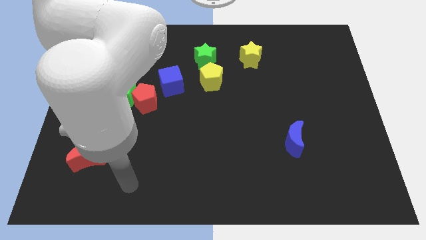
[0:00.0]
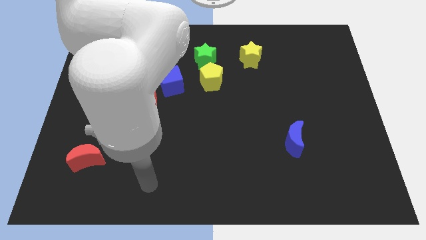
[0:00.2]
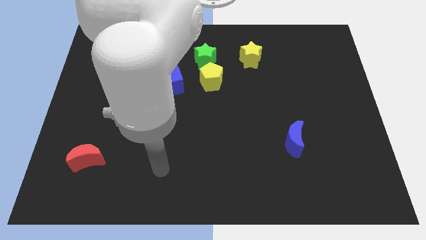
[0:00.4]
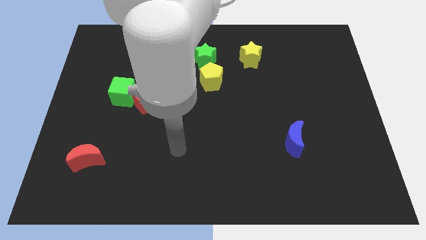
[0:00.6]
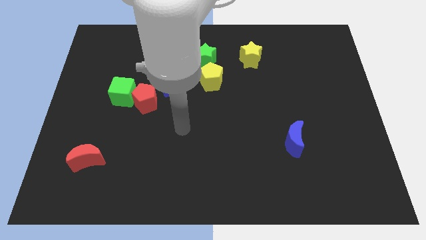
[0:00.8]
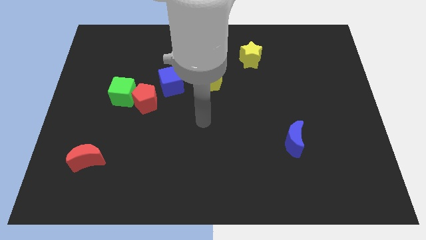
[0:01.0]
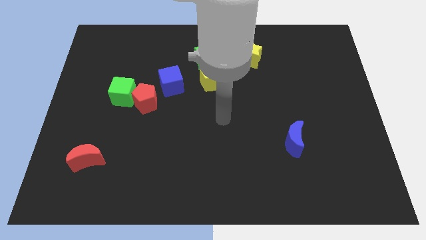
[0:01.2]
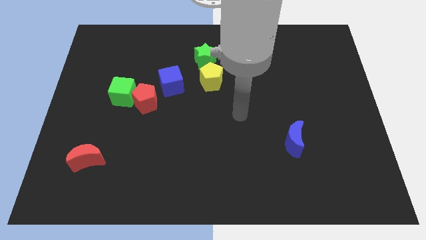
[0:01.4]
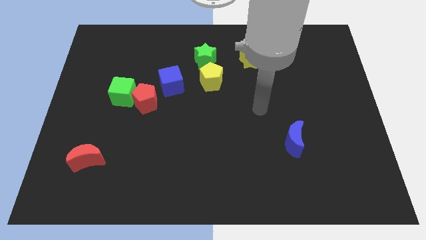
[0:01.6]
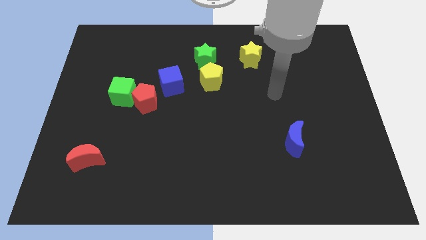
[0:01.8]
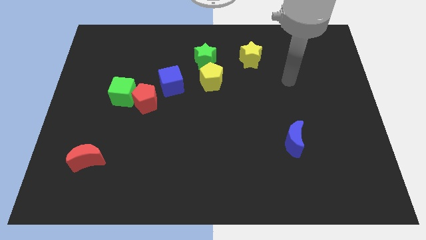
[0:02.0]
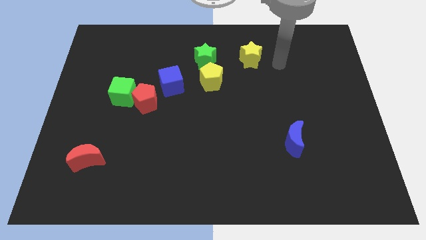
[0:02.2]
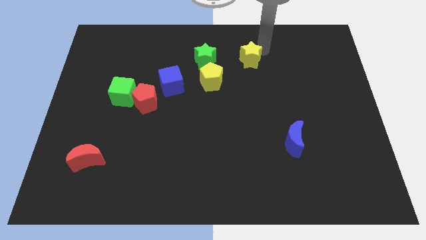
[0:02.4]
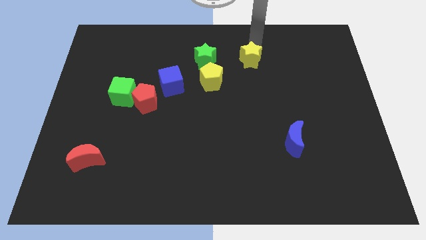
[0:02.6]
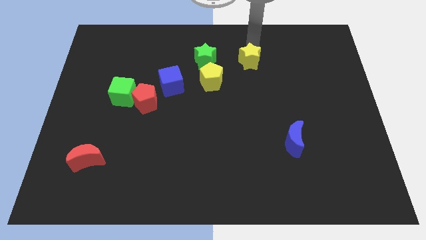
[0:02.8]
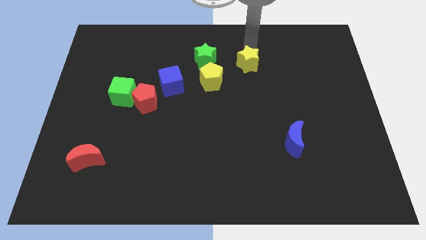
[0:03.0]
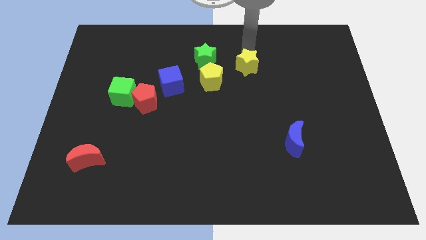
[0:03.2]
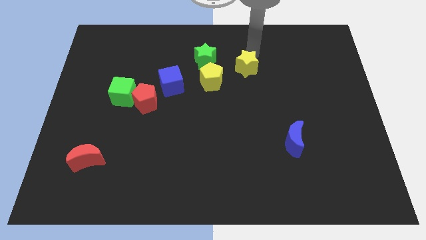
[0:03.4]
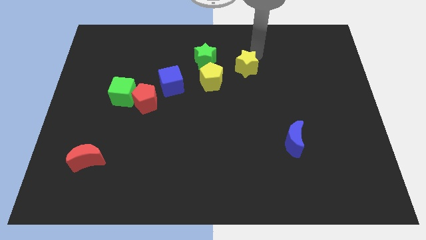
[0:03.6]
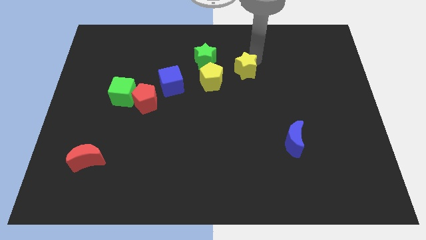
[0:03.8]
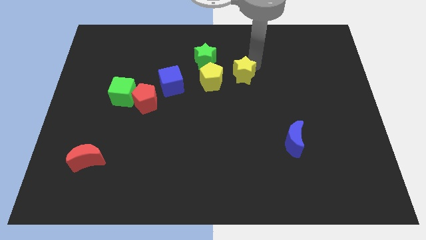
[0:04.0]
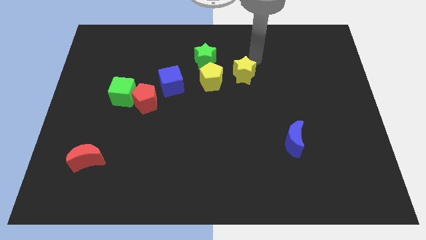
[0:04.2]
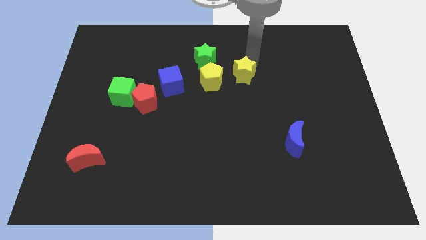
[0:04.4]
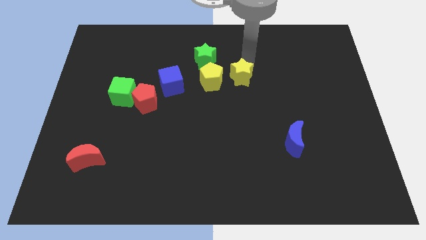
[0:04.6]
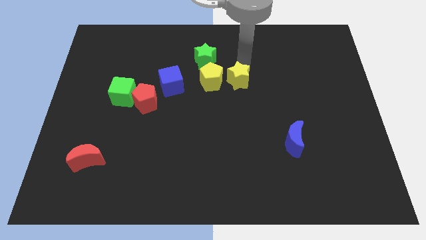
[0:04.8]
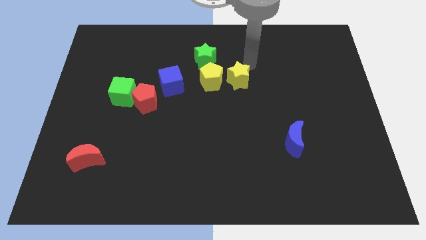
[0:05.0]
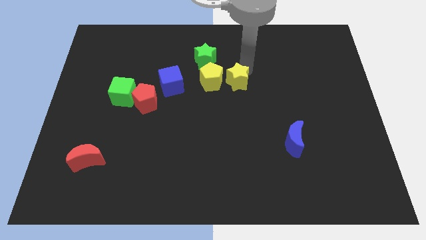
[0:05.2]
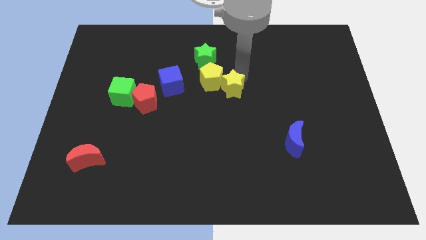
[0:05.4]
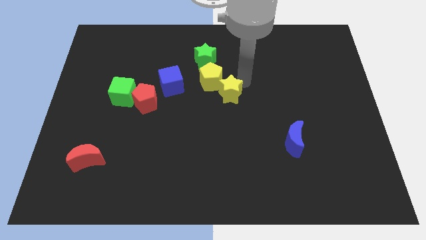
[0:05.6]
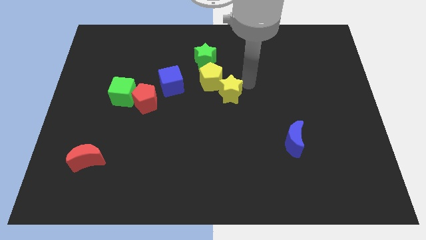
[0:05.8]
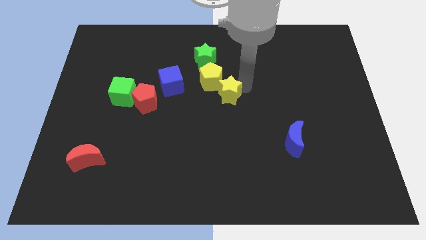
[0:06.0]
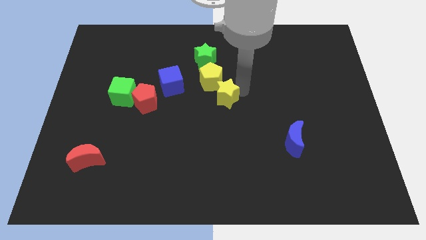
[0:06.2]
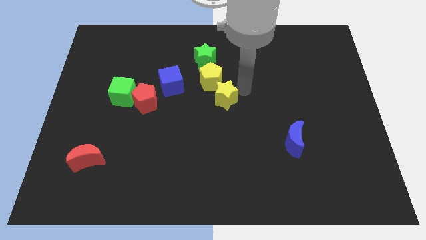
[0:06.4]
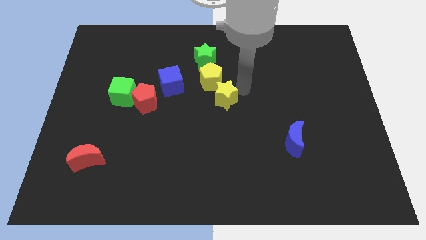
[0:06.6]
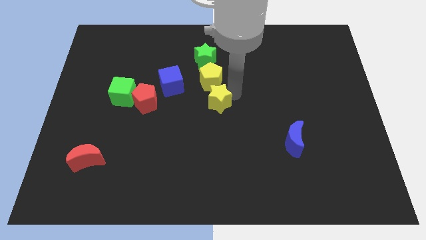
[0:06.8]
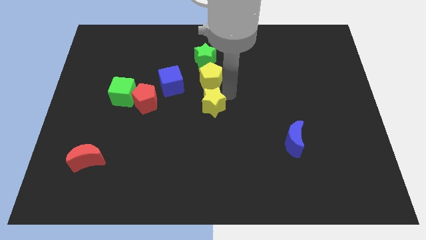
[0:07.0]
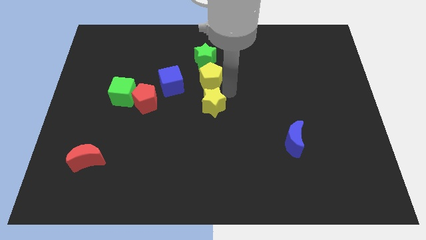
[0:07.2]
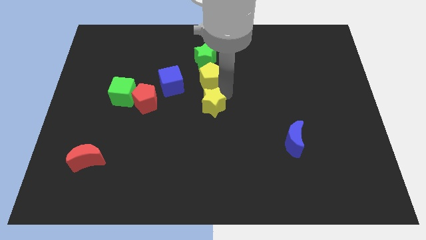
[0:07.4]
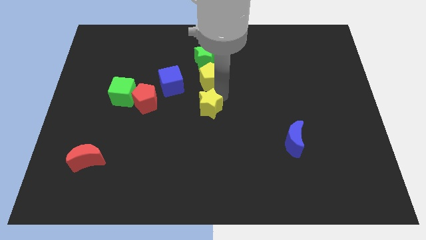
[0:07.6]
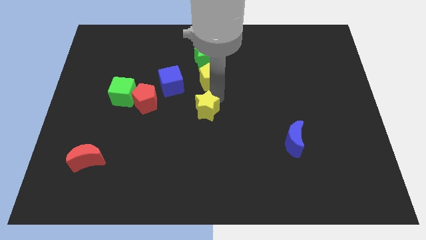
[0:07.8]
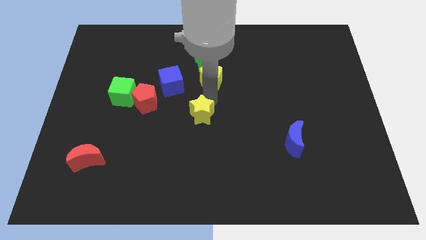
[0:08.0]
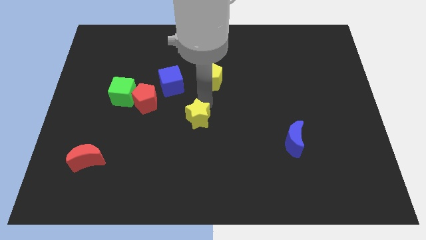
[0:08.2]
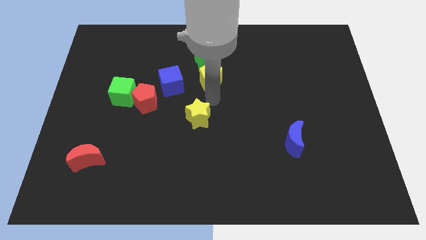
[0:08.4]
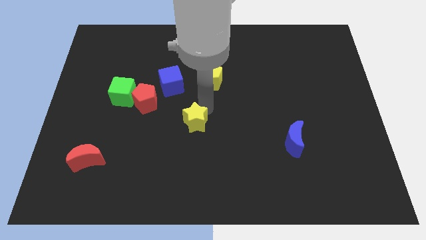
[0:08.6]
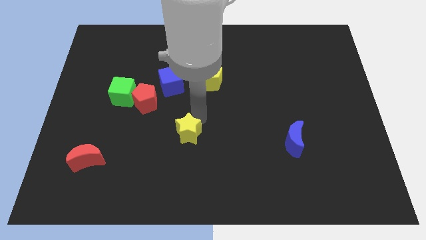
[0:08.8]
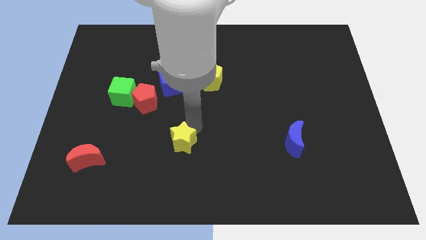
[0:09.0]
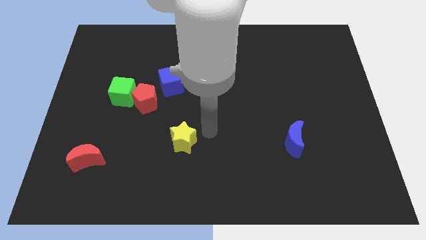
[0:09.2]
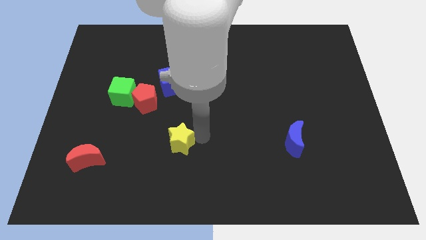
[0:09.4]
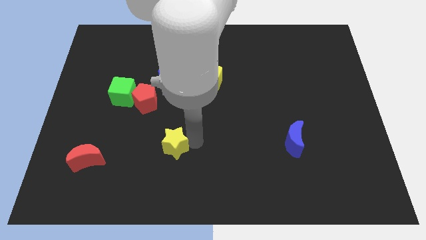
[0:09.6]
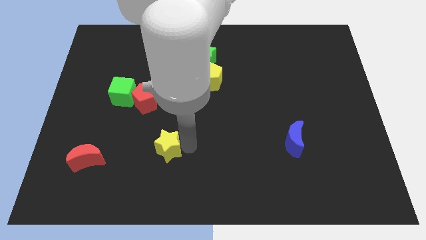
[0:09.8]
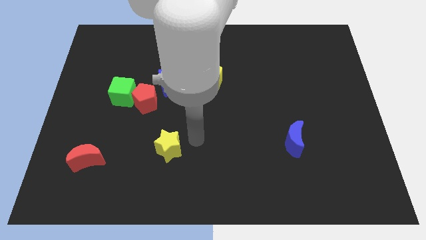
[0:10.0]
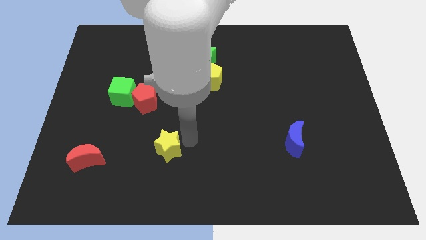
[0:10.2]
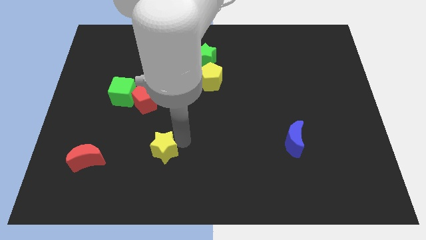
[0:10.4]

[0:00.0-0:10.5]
move the yellow star just right of the red moon

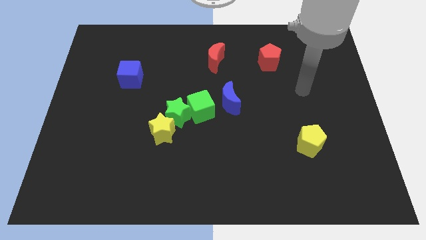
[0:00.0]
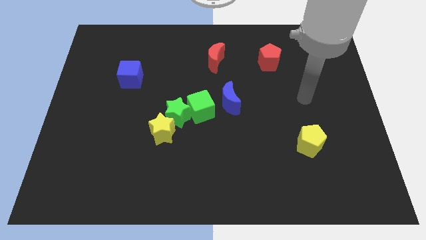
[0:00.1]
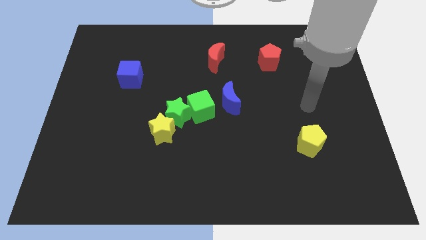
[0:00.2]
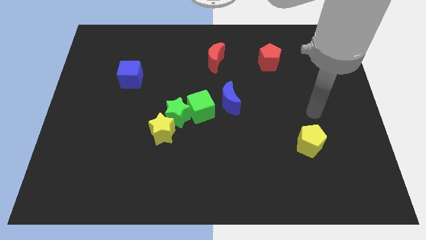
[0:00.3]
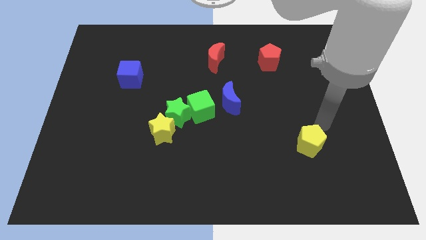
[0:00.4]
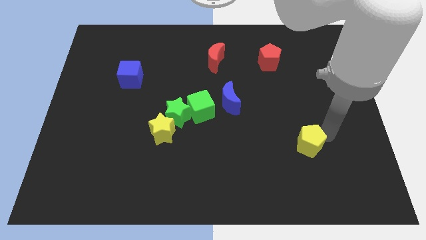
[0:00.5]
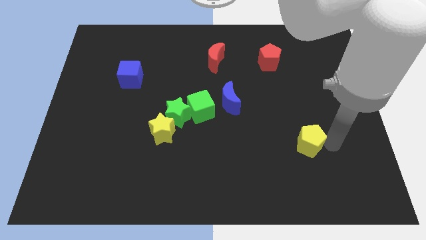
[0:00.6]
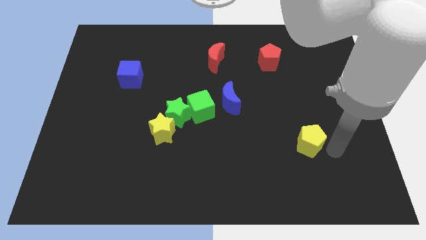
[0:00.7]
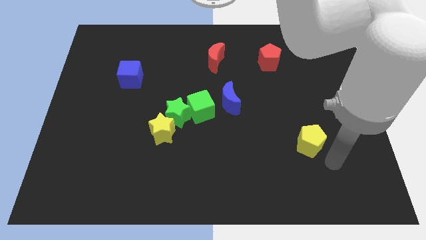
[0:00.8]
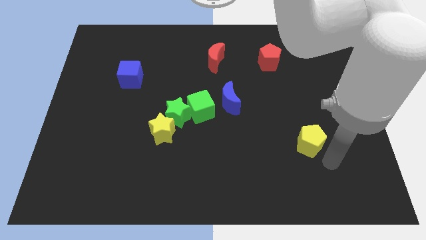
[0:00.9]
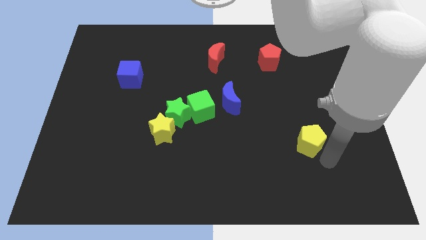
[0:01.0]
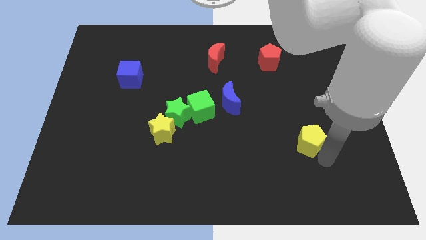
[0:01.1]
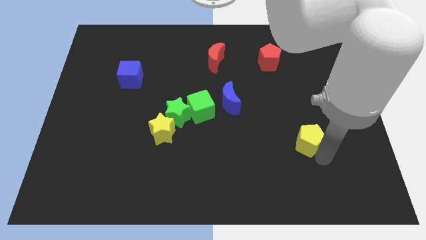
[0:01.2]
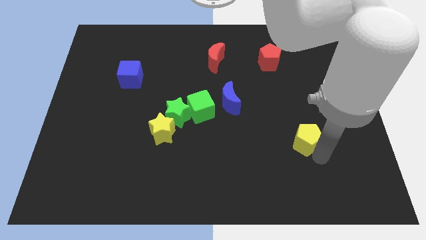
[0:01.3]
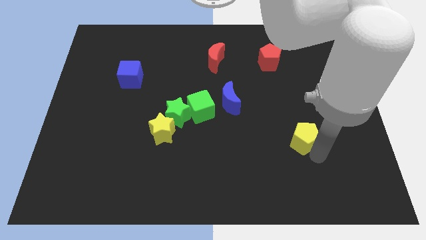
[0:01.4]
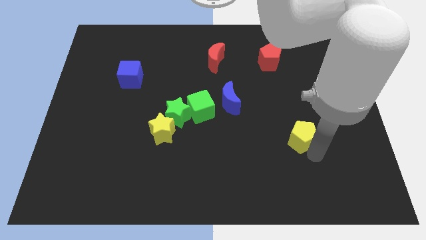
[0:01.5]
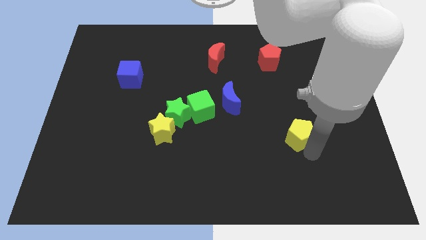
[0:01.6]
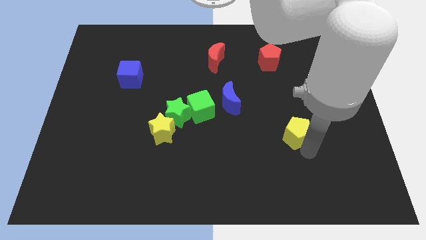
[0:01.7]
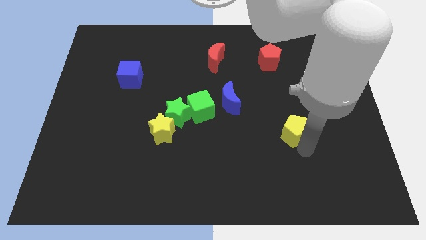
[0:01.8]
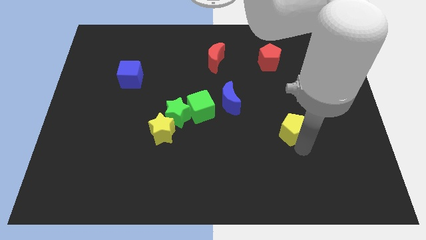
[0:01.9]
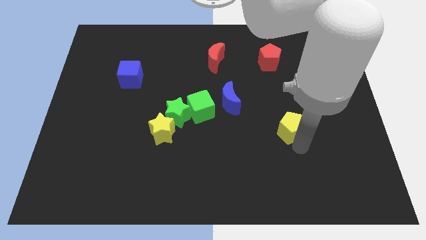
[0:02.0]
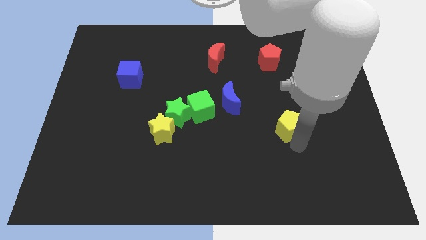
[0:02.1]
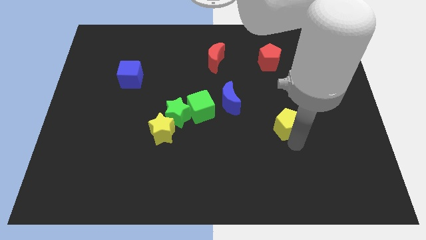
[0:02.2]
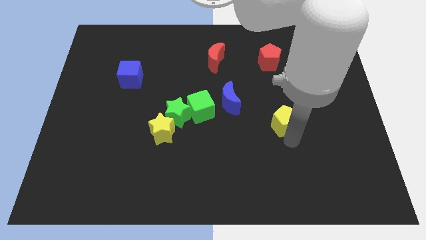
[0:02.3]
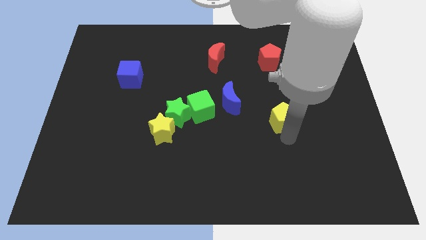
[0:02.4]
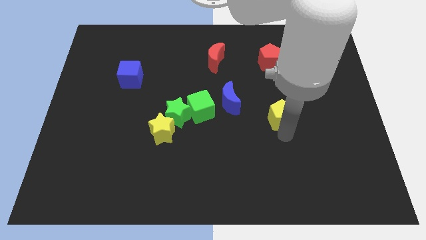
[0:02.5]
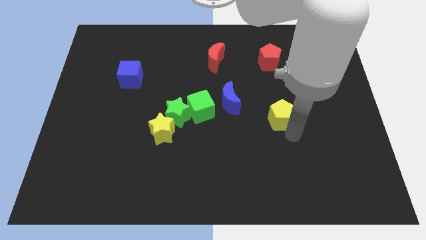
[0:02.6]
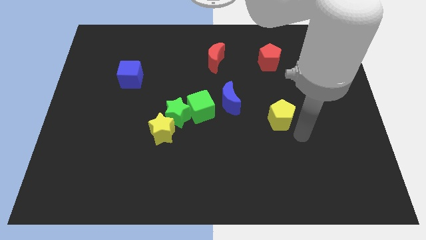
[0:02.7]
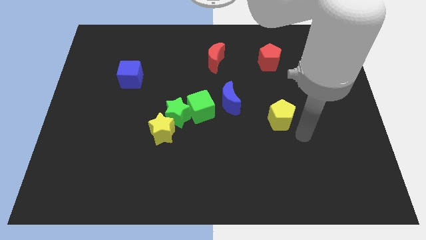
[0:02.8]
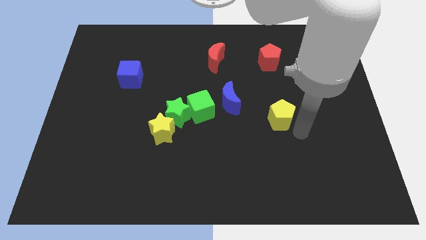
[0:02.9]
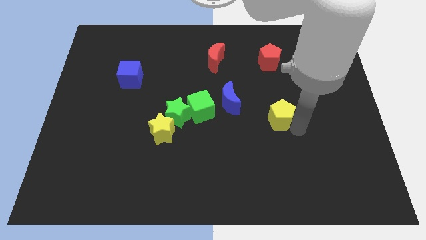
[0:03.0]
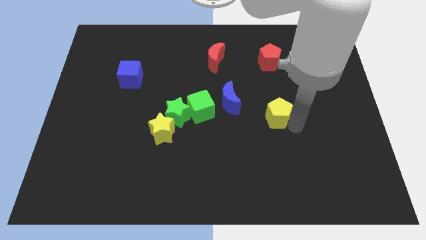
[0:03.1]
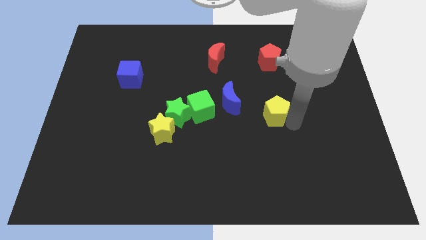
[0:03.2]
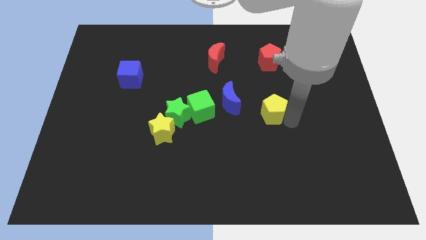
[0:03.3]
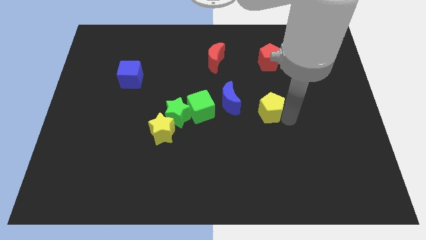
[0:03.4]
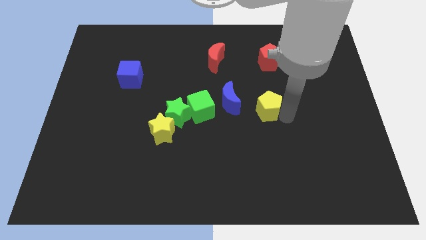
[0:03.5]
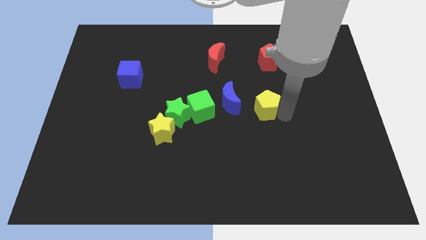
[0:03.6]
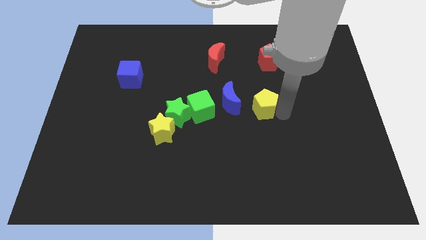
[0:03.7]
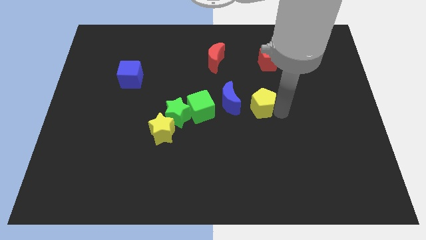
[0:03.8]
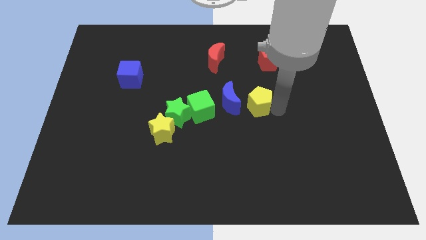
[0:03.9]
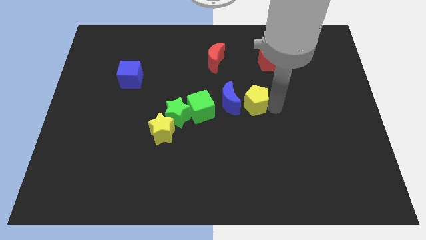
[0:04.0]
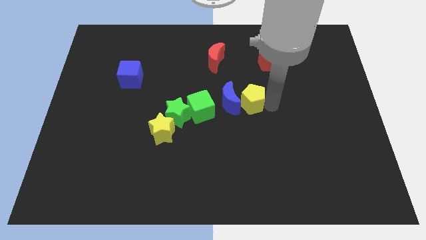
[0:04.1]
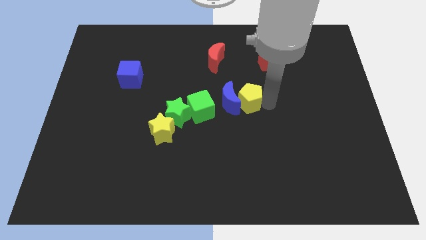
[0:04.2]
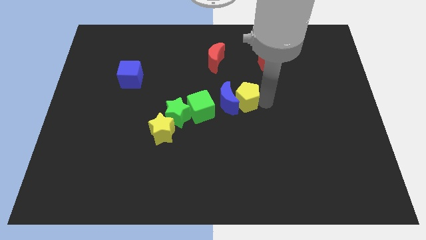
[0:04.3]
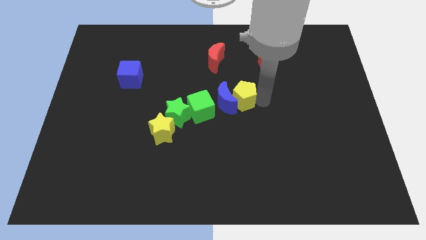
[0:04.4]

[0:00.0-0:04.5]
move the yellow pentagon to the top right side of the green cube
